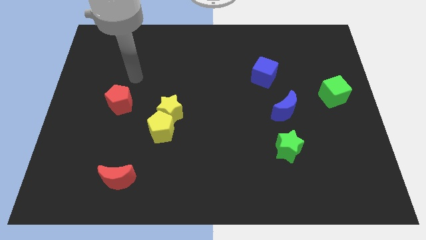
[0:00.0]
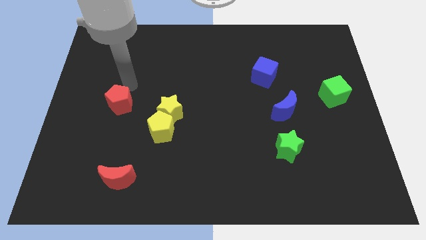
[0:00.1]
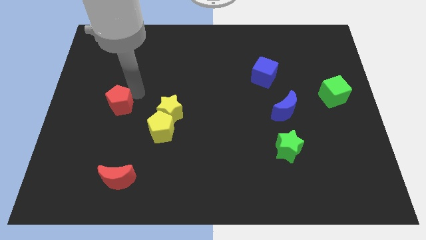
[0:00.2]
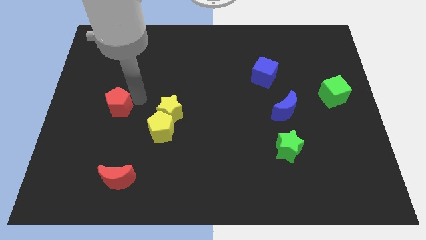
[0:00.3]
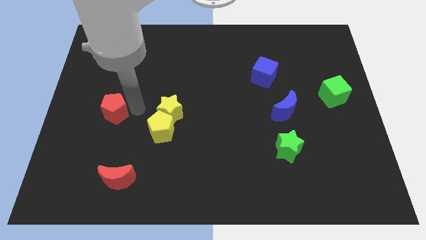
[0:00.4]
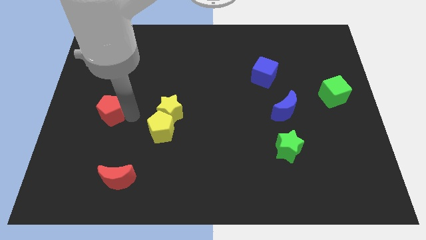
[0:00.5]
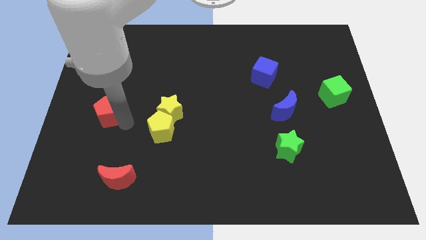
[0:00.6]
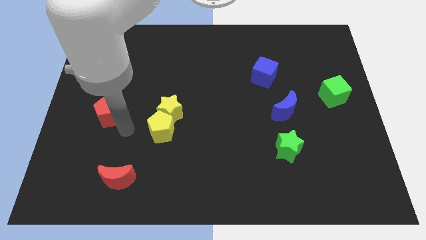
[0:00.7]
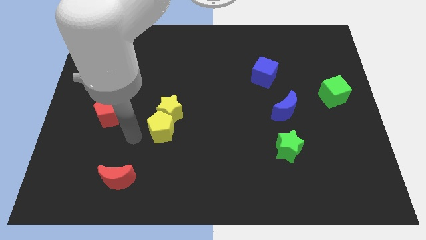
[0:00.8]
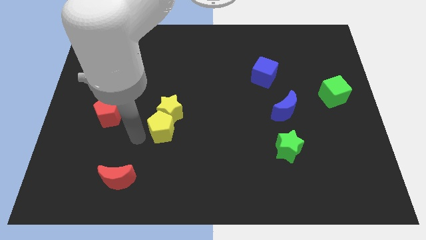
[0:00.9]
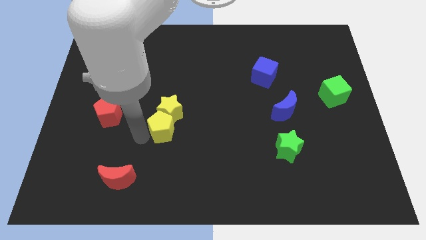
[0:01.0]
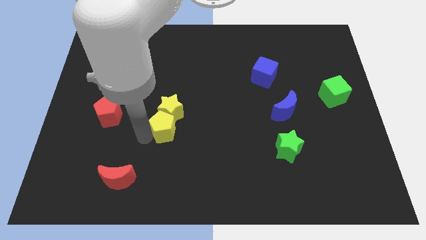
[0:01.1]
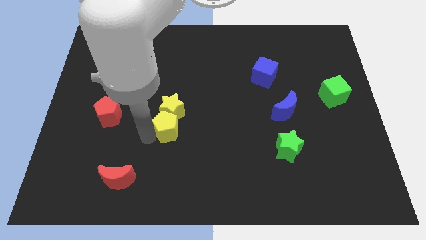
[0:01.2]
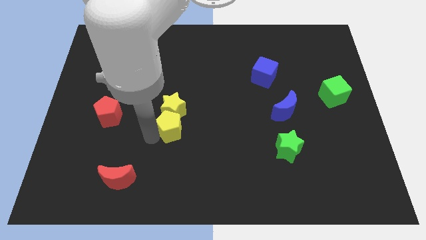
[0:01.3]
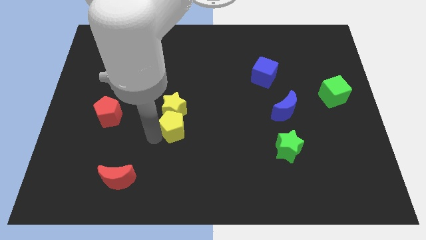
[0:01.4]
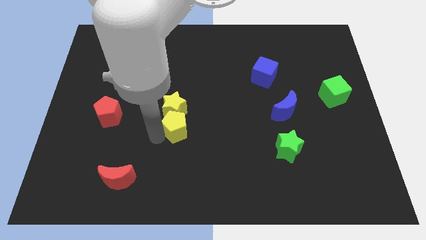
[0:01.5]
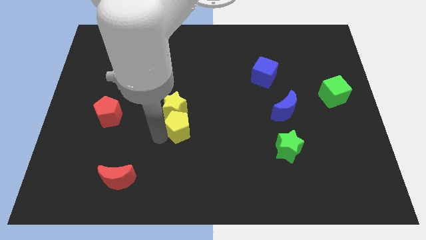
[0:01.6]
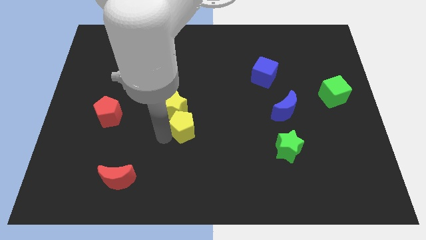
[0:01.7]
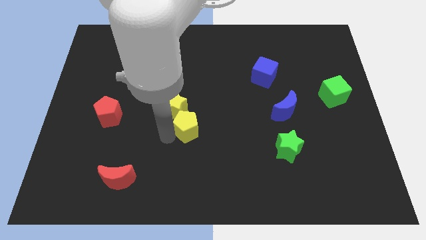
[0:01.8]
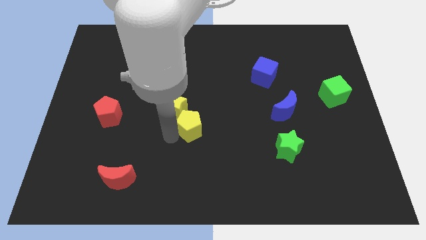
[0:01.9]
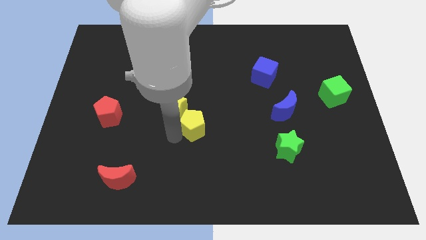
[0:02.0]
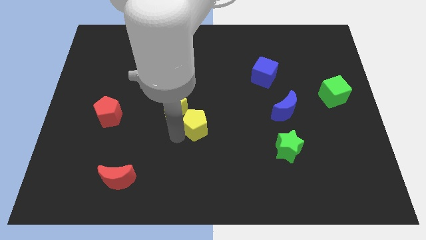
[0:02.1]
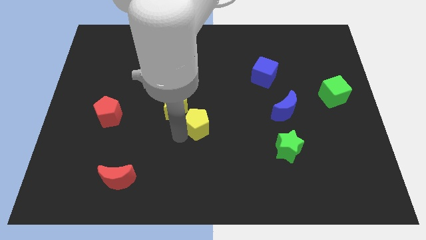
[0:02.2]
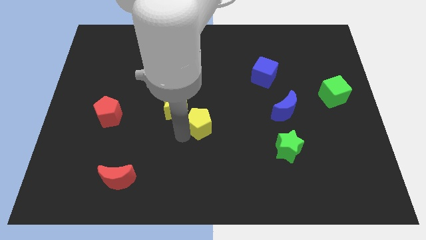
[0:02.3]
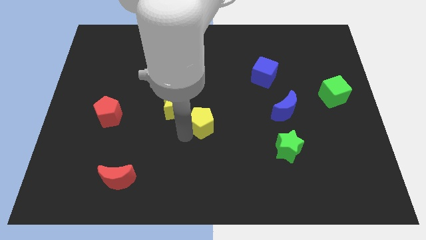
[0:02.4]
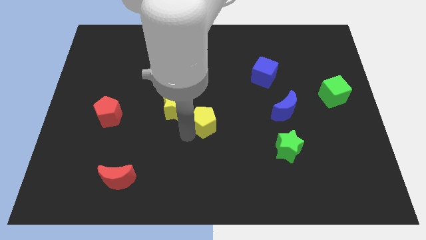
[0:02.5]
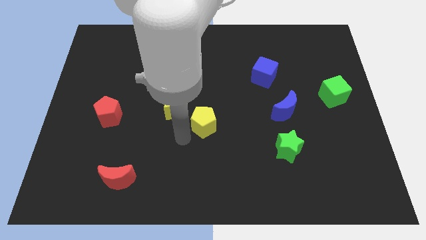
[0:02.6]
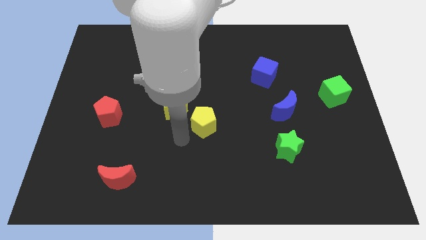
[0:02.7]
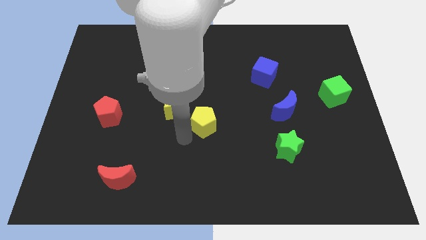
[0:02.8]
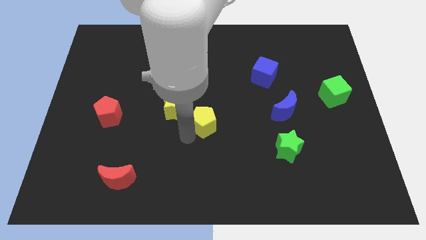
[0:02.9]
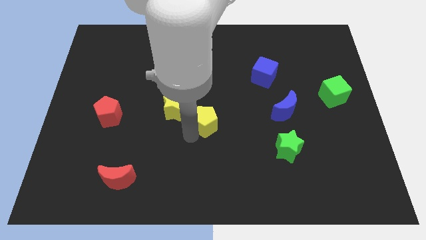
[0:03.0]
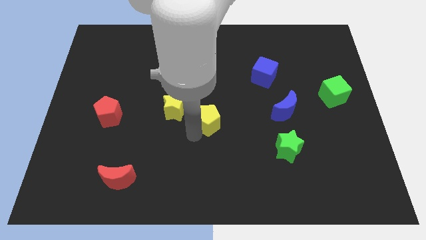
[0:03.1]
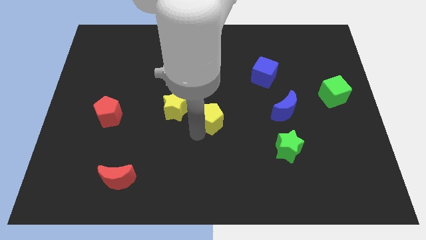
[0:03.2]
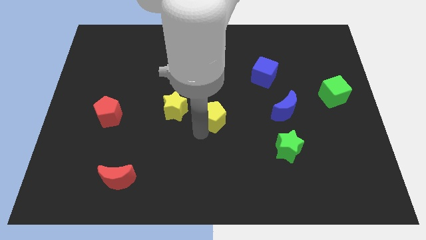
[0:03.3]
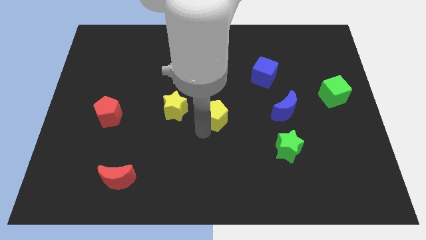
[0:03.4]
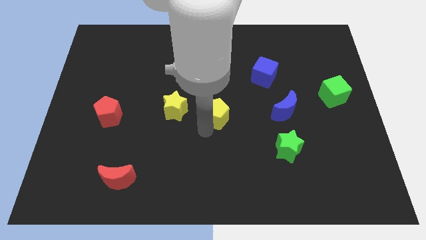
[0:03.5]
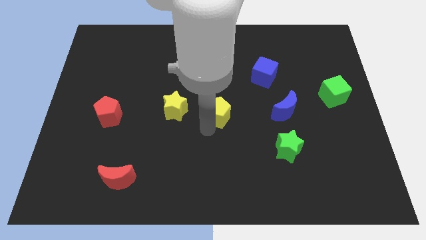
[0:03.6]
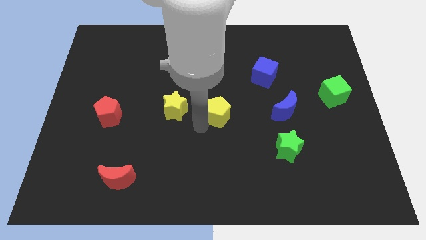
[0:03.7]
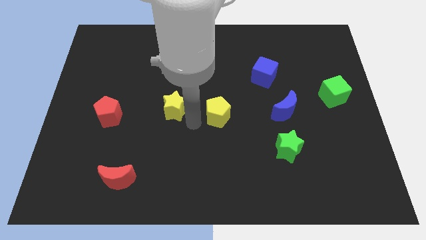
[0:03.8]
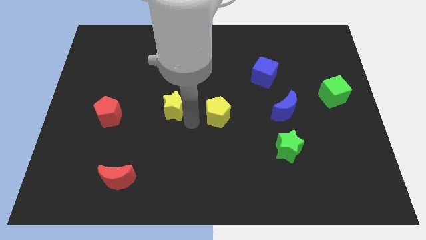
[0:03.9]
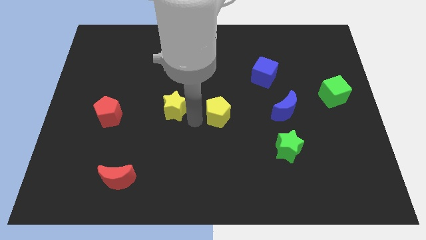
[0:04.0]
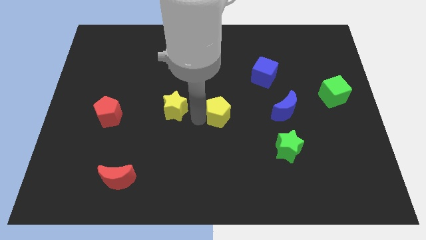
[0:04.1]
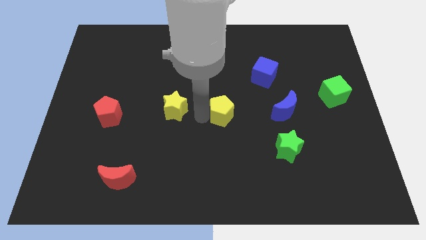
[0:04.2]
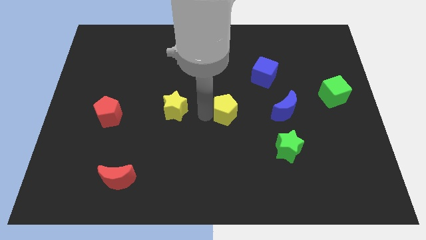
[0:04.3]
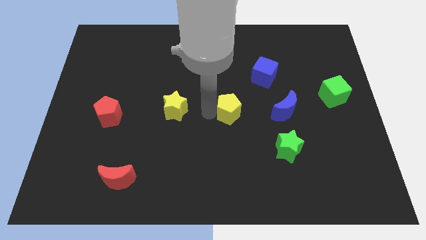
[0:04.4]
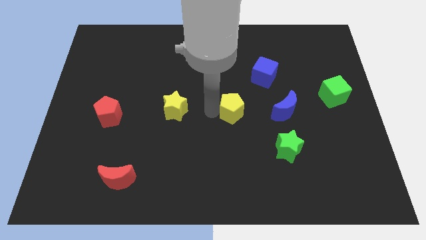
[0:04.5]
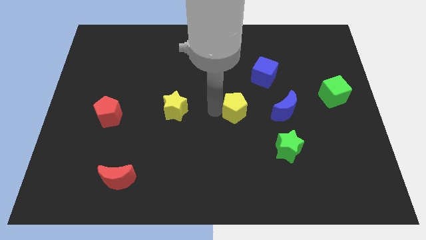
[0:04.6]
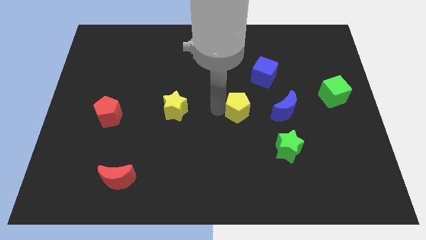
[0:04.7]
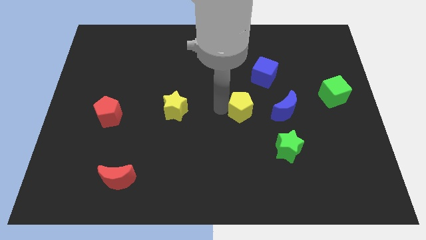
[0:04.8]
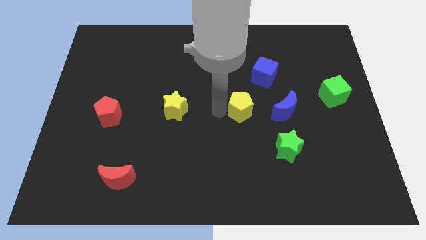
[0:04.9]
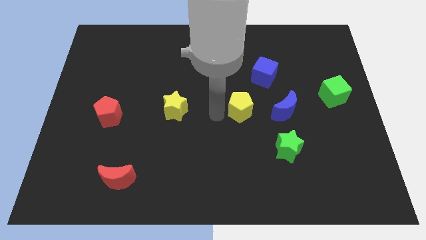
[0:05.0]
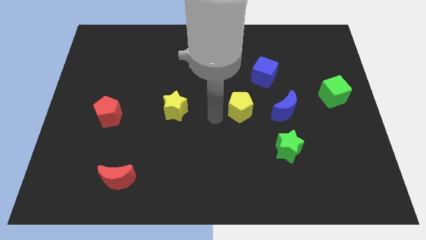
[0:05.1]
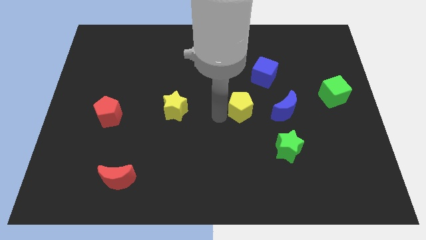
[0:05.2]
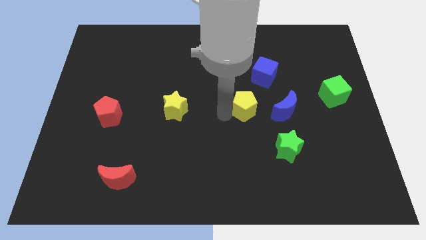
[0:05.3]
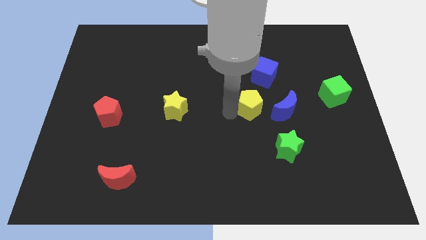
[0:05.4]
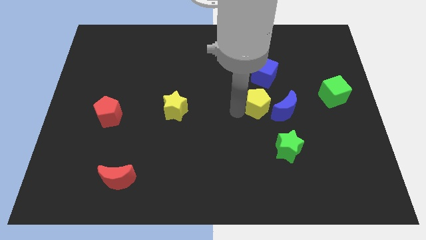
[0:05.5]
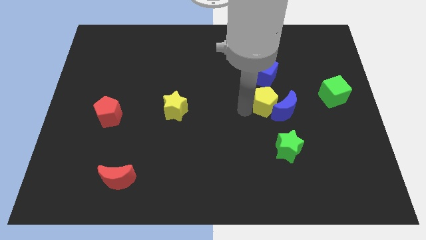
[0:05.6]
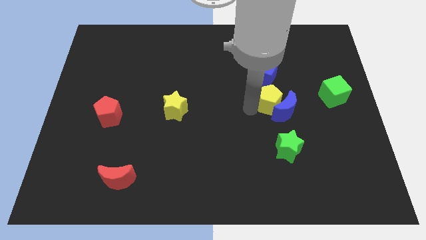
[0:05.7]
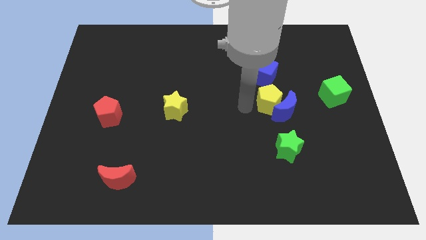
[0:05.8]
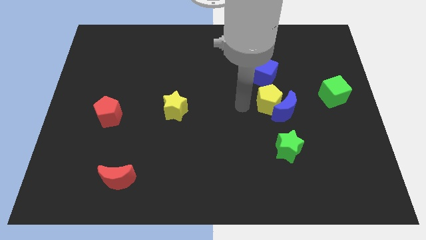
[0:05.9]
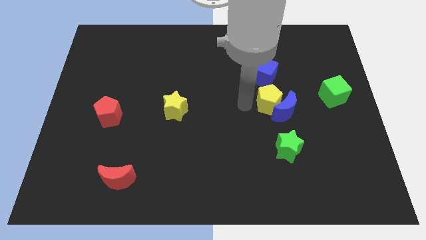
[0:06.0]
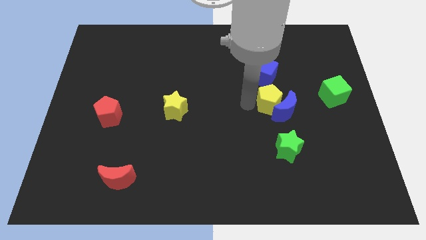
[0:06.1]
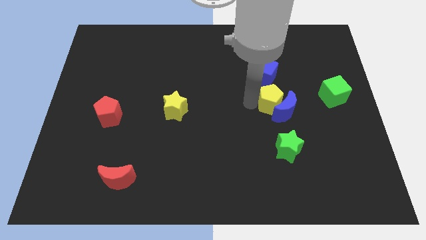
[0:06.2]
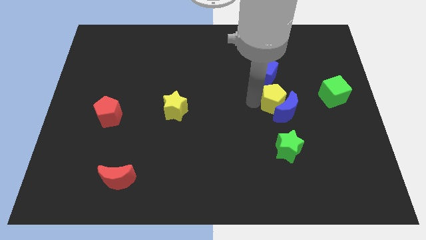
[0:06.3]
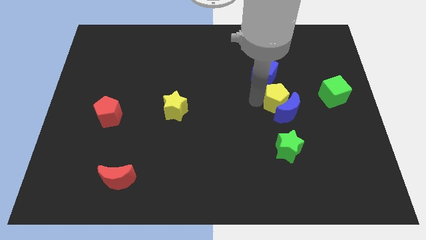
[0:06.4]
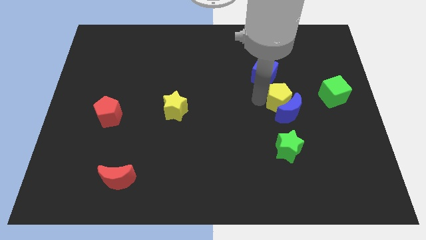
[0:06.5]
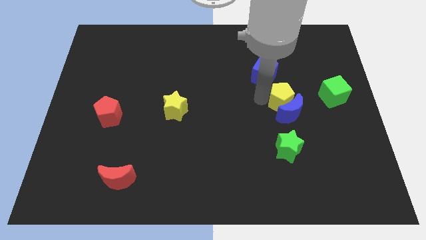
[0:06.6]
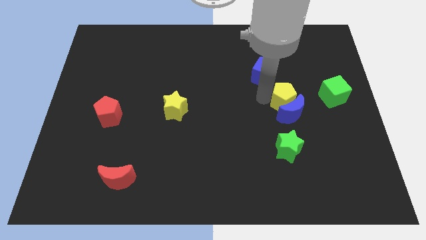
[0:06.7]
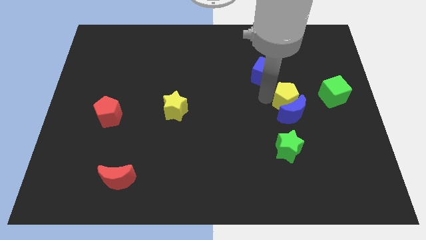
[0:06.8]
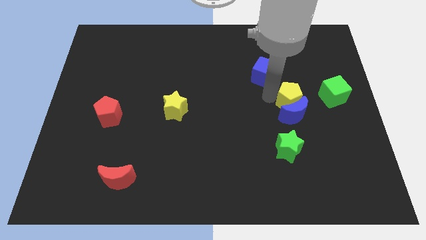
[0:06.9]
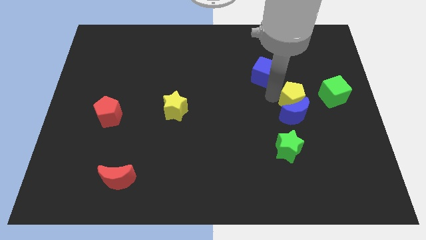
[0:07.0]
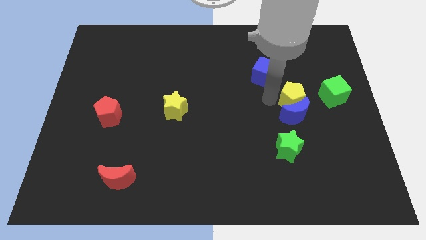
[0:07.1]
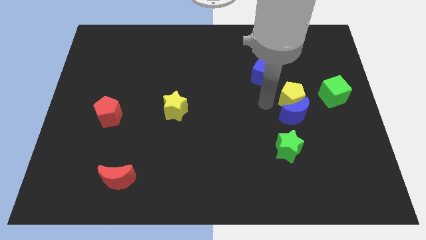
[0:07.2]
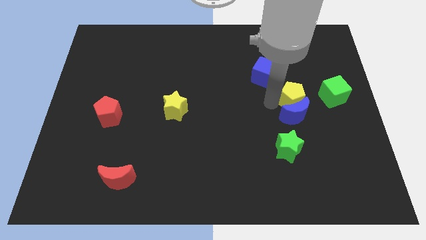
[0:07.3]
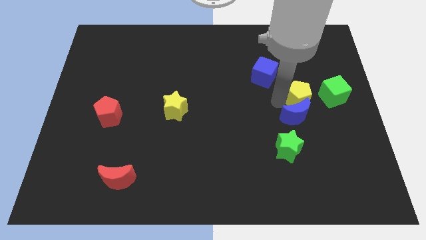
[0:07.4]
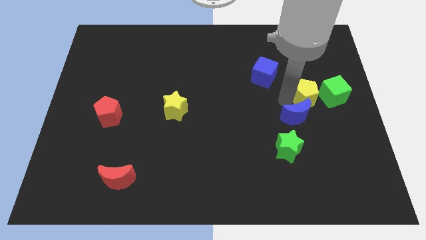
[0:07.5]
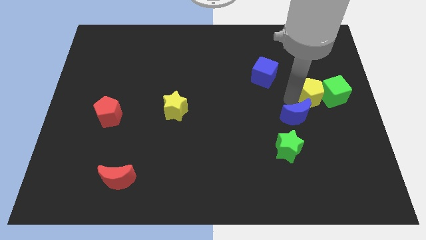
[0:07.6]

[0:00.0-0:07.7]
push the yellow pentagon close to the green cube
